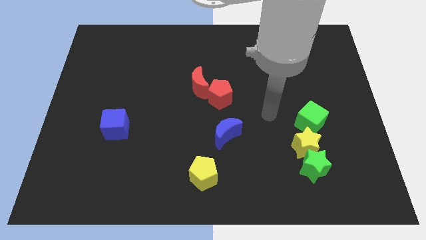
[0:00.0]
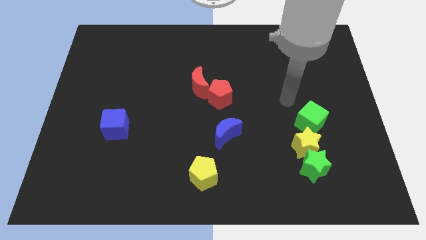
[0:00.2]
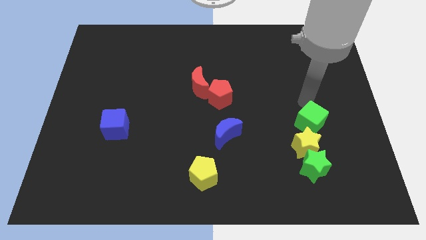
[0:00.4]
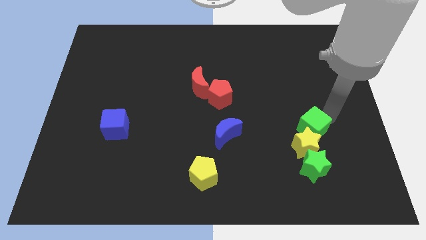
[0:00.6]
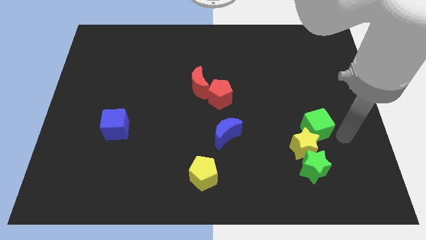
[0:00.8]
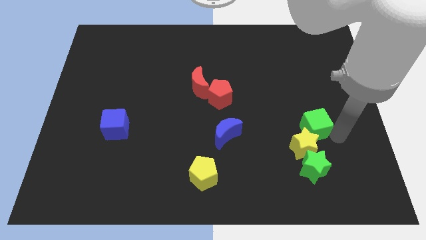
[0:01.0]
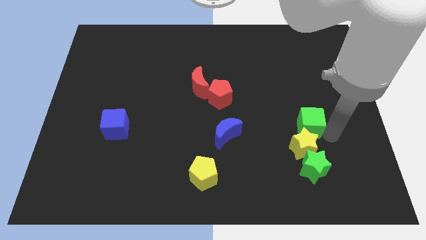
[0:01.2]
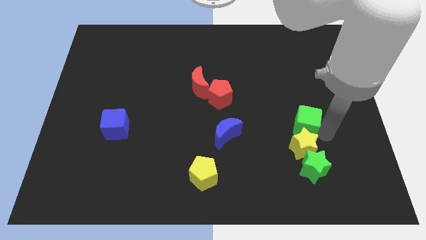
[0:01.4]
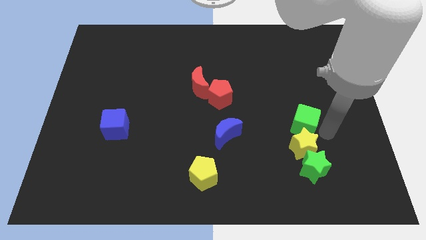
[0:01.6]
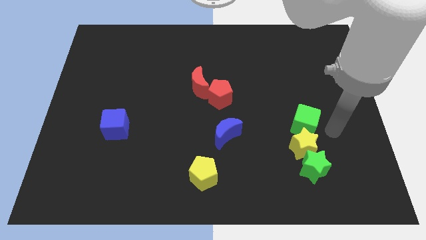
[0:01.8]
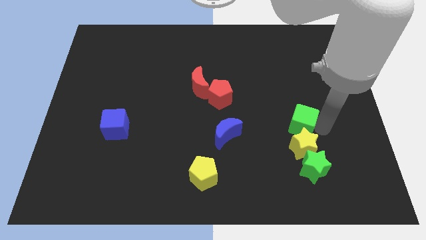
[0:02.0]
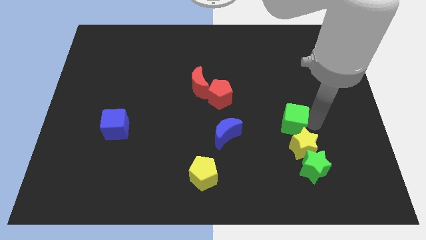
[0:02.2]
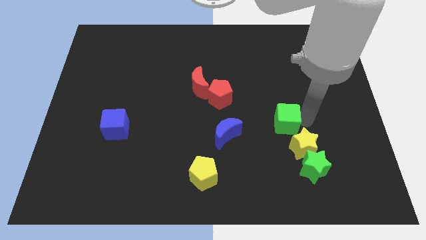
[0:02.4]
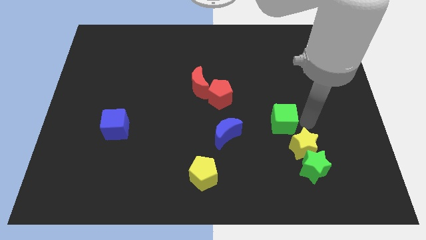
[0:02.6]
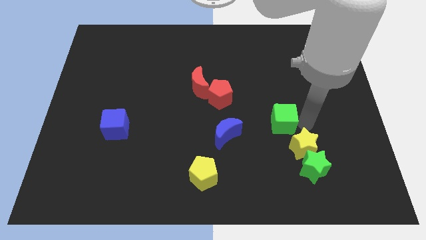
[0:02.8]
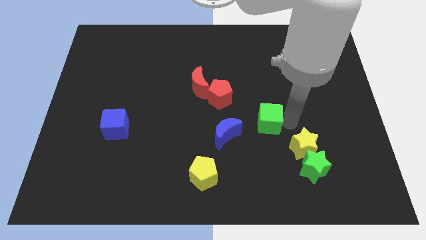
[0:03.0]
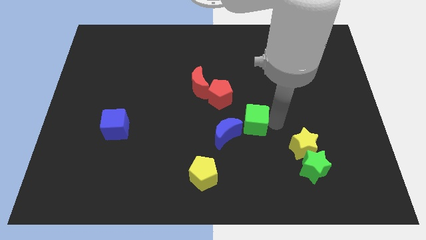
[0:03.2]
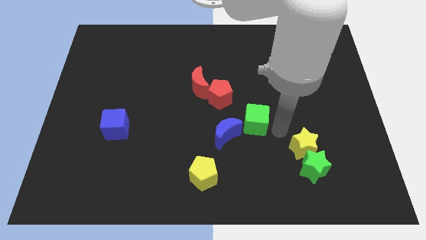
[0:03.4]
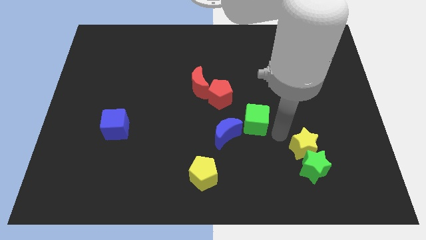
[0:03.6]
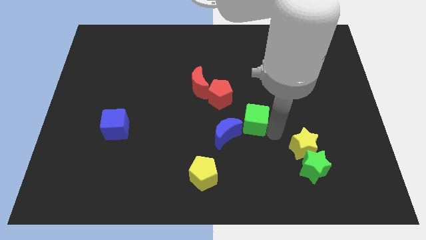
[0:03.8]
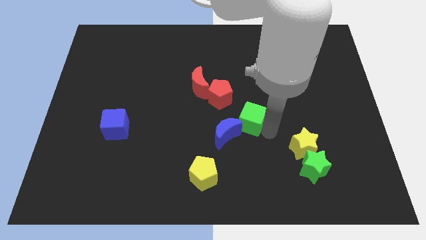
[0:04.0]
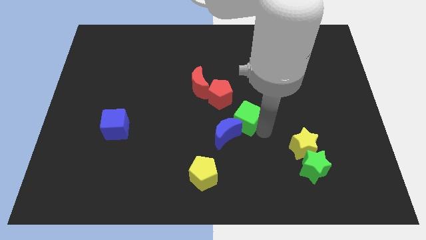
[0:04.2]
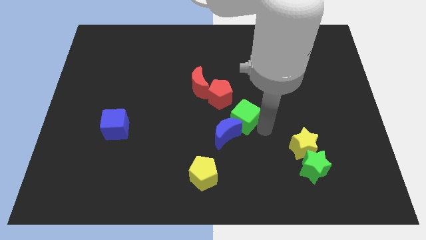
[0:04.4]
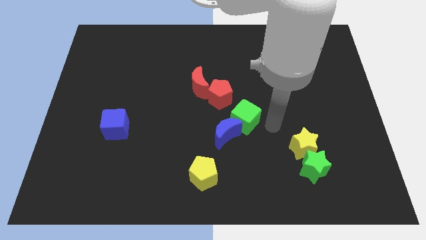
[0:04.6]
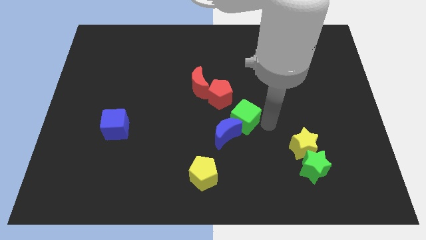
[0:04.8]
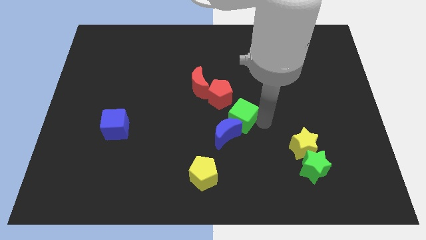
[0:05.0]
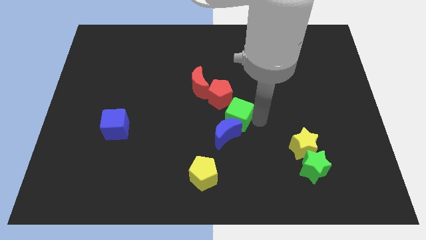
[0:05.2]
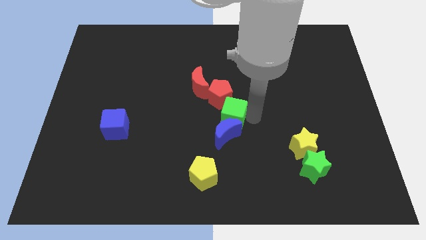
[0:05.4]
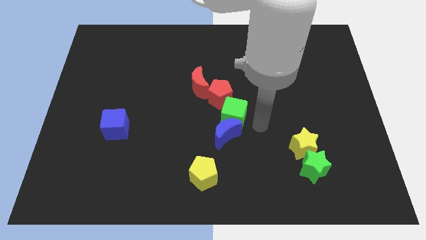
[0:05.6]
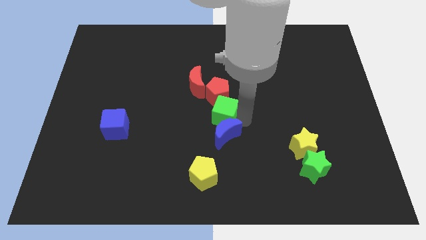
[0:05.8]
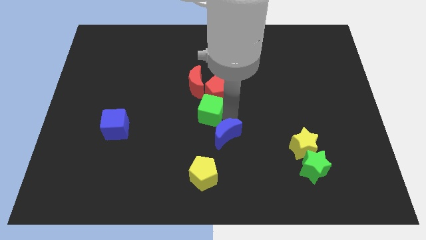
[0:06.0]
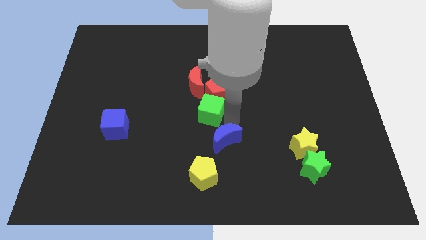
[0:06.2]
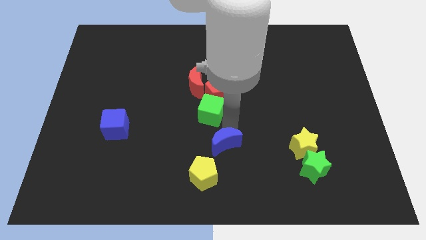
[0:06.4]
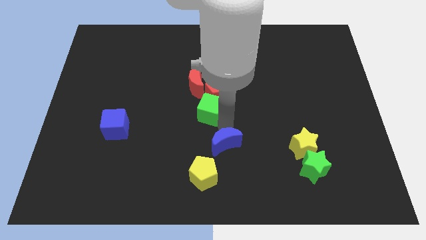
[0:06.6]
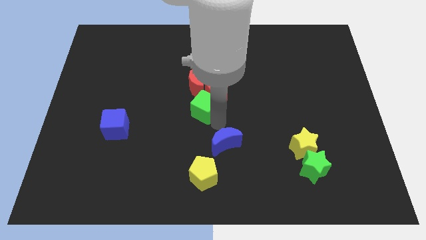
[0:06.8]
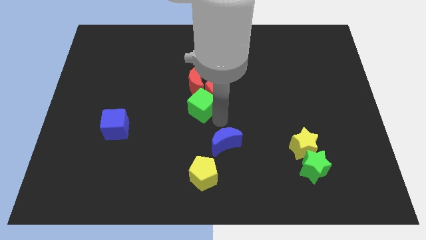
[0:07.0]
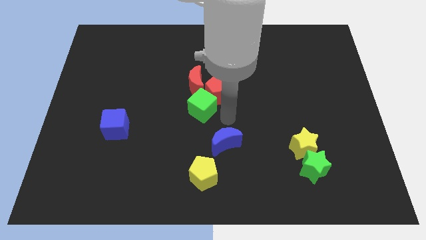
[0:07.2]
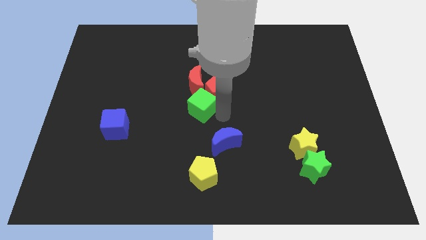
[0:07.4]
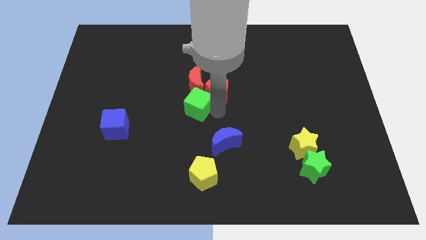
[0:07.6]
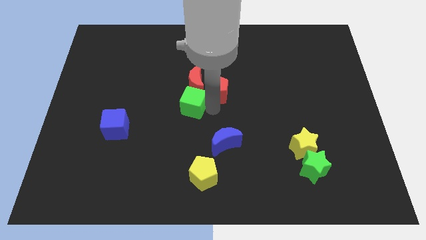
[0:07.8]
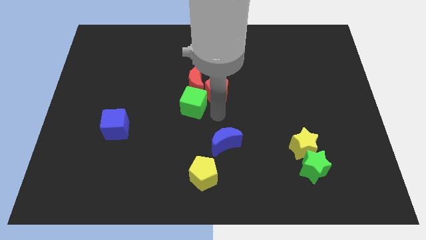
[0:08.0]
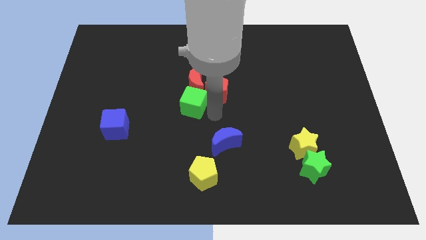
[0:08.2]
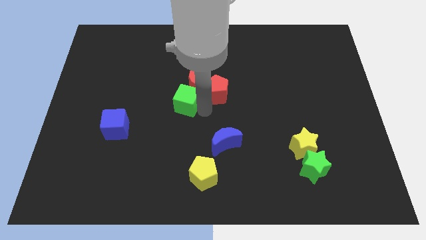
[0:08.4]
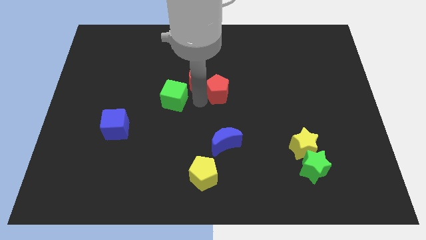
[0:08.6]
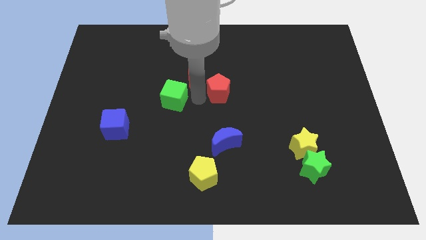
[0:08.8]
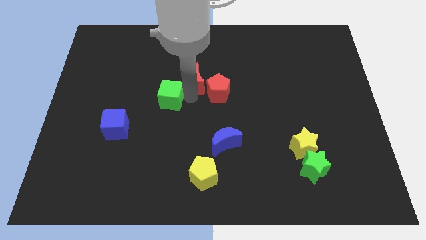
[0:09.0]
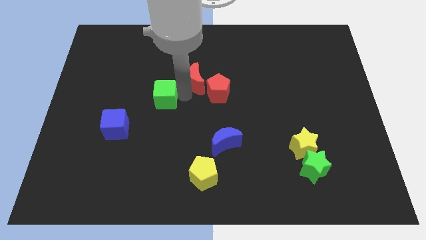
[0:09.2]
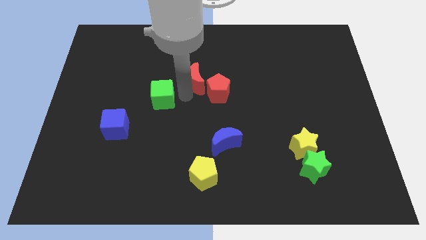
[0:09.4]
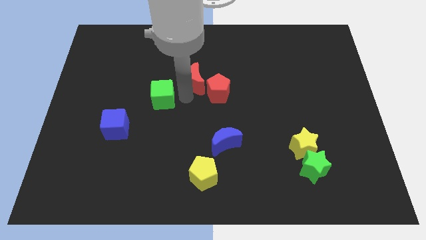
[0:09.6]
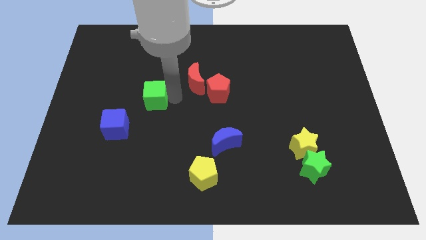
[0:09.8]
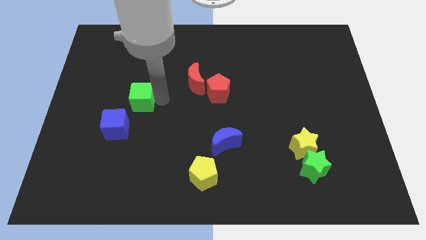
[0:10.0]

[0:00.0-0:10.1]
push the green cube to the top side of the blue cube

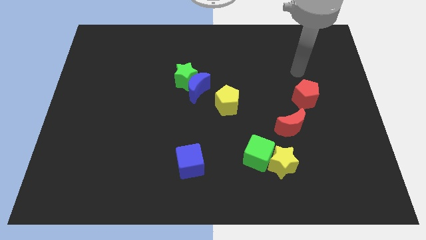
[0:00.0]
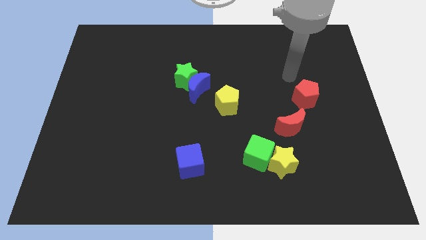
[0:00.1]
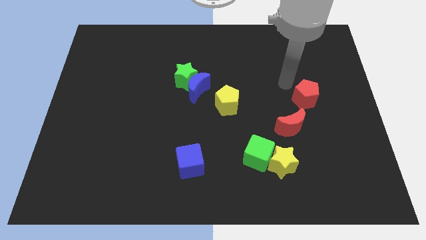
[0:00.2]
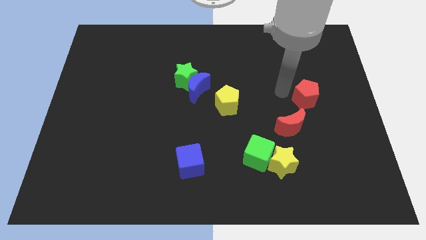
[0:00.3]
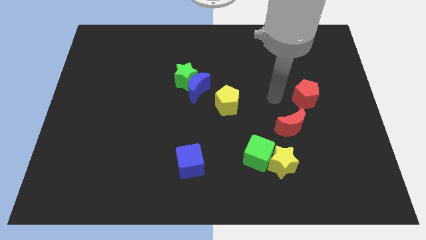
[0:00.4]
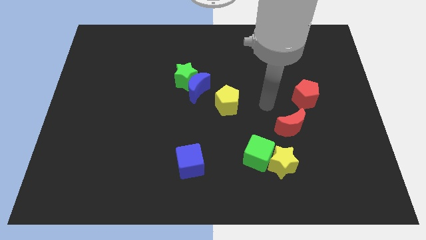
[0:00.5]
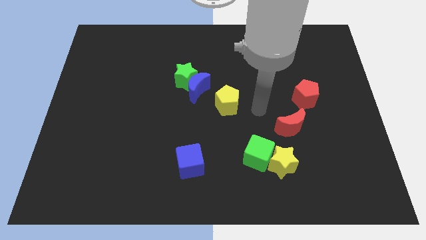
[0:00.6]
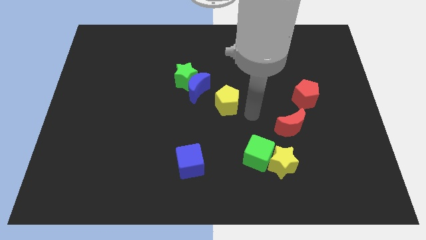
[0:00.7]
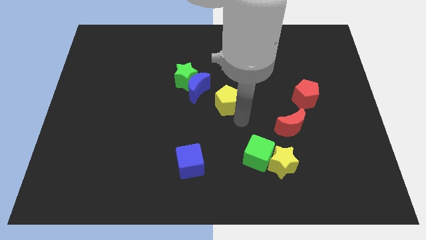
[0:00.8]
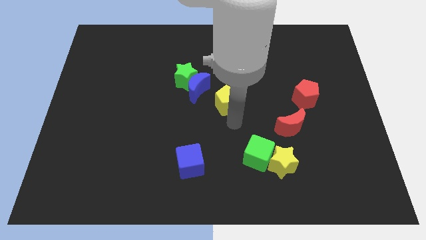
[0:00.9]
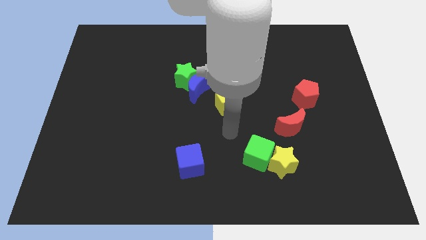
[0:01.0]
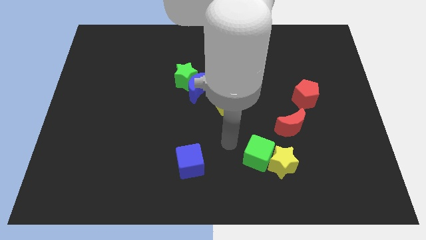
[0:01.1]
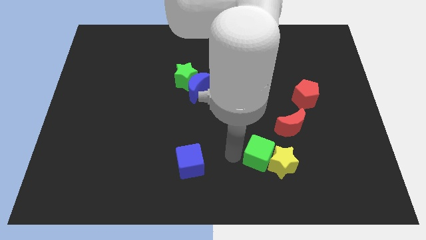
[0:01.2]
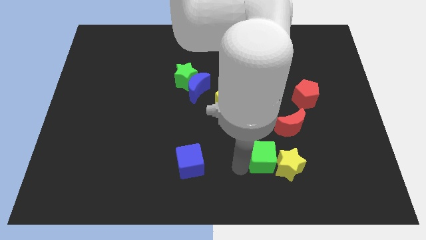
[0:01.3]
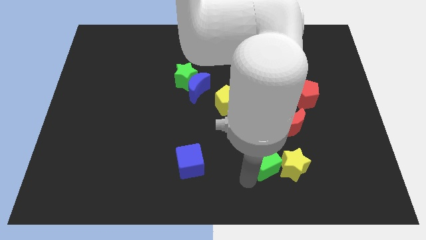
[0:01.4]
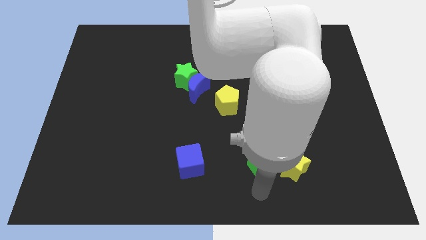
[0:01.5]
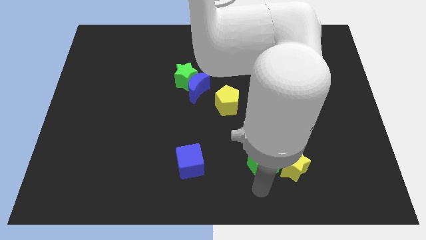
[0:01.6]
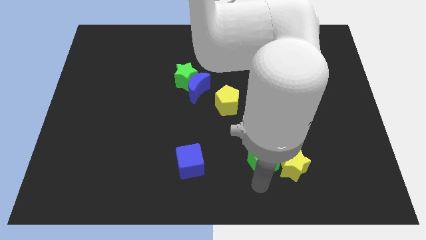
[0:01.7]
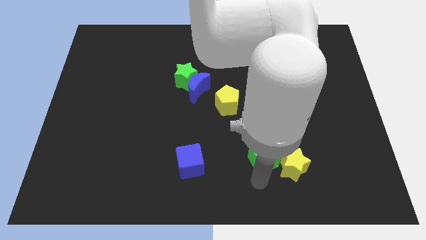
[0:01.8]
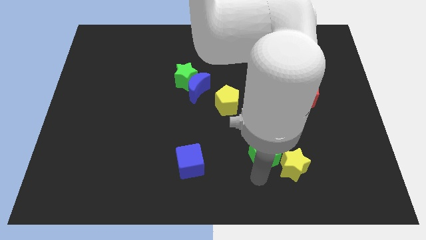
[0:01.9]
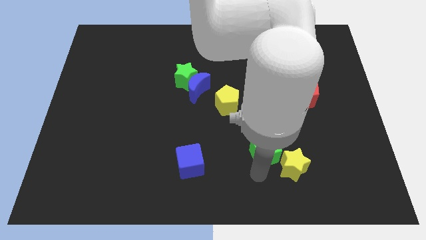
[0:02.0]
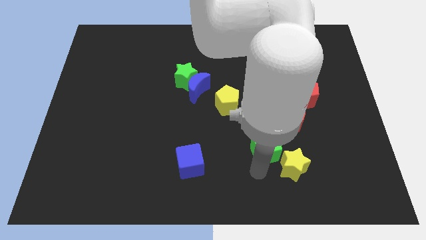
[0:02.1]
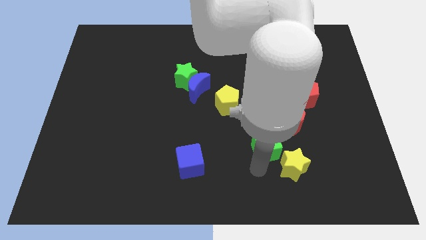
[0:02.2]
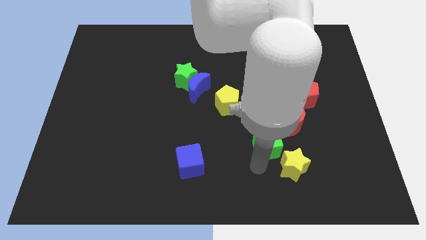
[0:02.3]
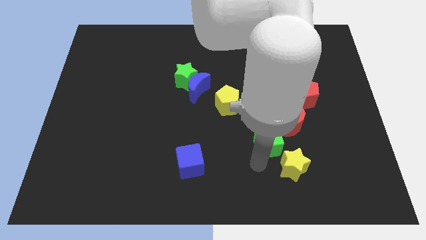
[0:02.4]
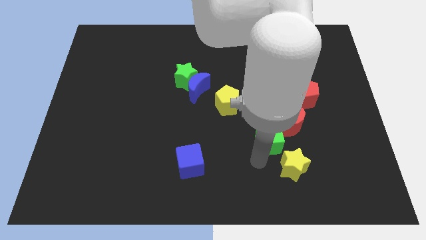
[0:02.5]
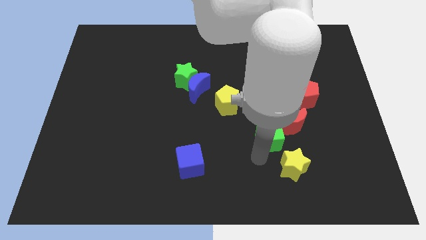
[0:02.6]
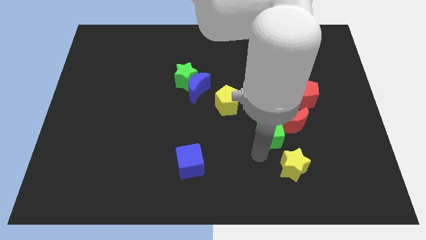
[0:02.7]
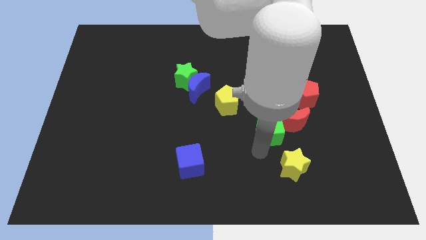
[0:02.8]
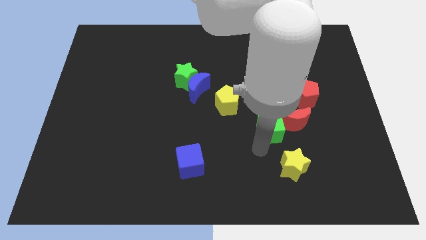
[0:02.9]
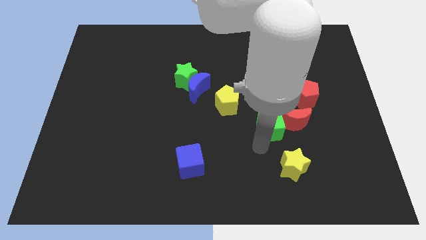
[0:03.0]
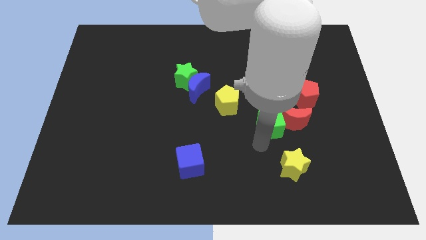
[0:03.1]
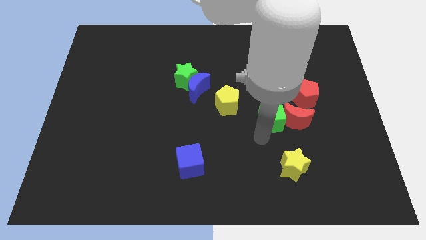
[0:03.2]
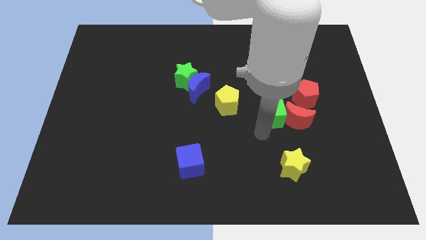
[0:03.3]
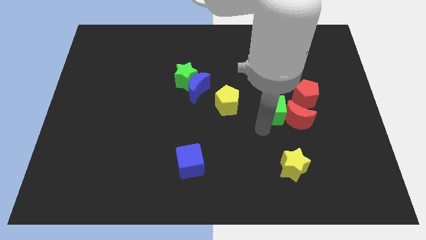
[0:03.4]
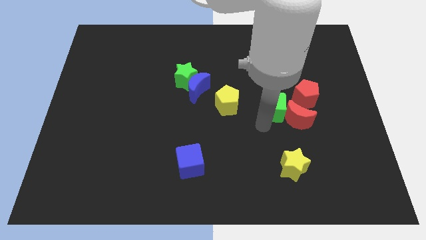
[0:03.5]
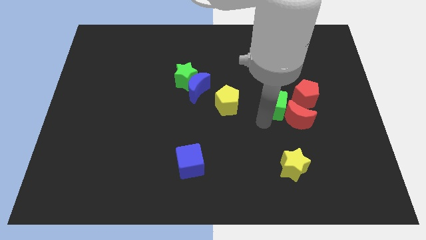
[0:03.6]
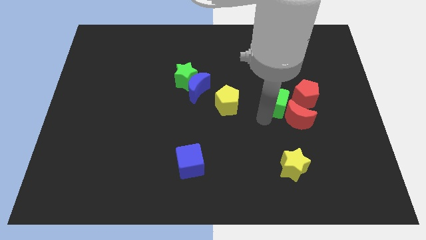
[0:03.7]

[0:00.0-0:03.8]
move the green cube above the red moon
